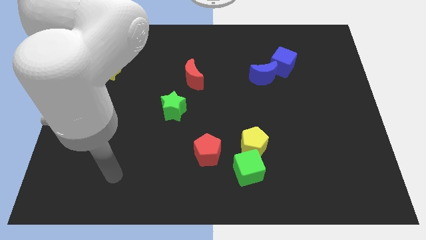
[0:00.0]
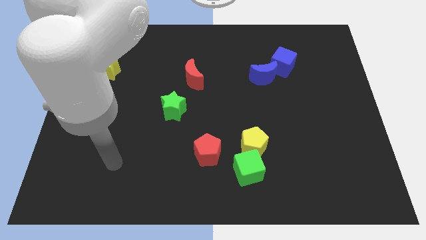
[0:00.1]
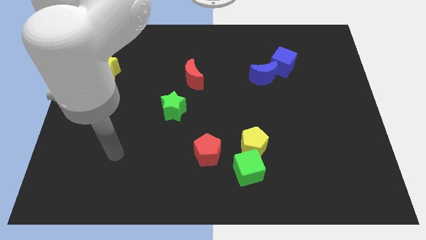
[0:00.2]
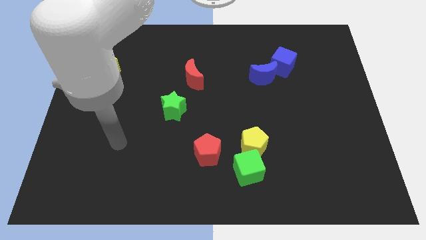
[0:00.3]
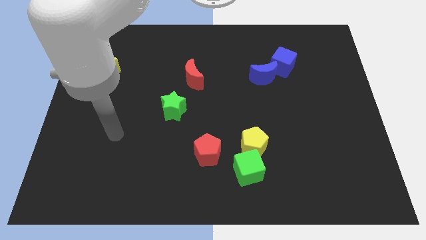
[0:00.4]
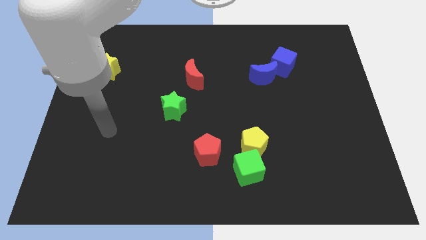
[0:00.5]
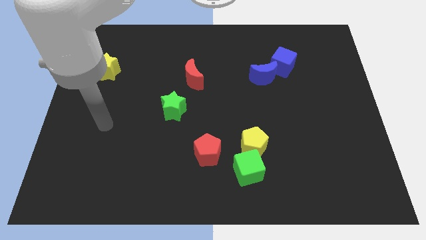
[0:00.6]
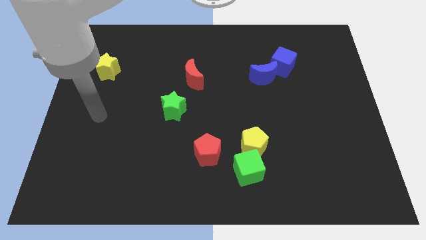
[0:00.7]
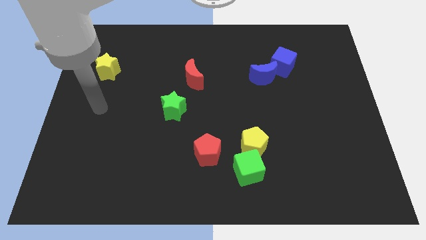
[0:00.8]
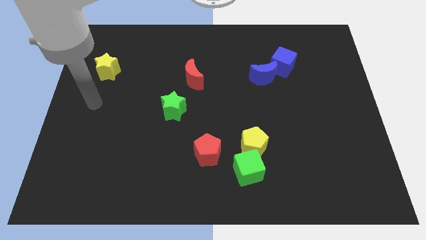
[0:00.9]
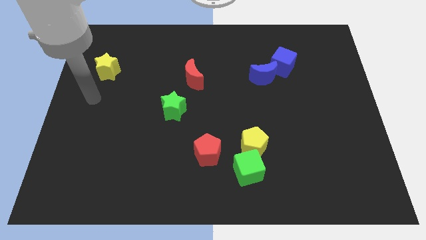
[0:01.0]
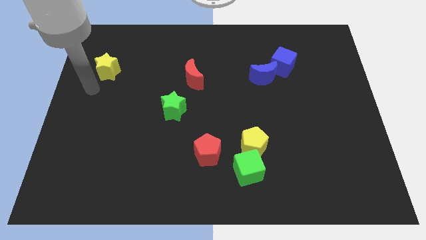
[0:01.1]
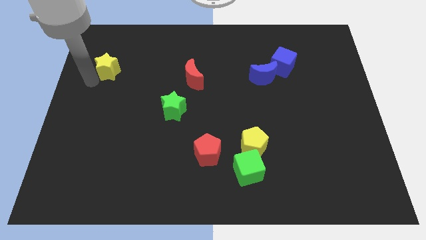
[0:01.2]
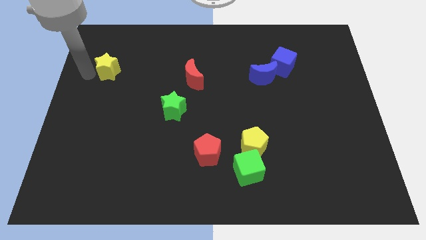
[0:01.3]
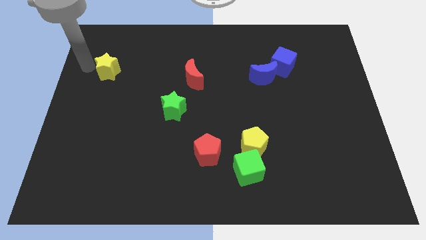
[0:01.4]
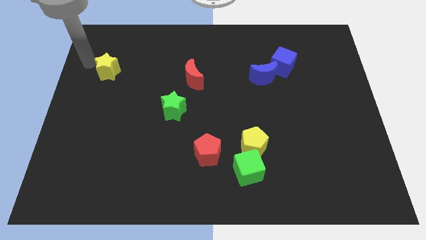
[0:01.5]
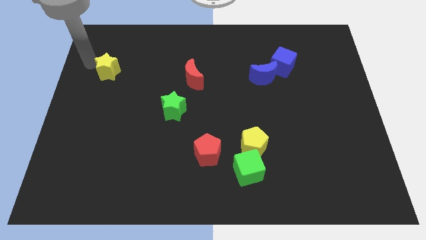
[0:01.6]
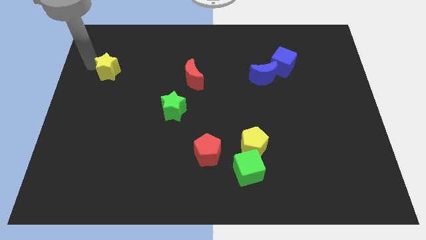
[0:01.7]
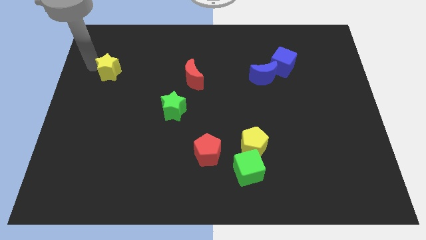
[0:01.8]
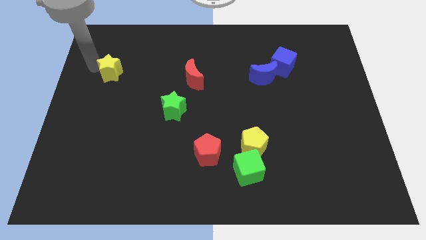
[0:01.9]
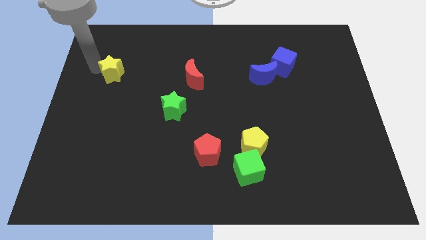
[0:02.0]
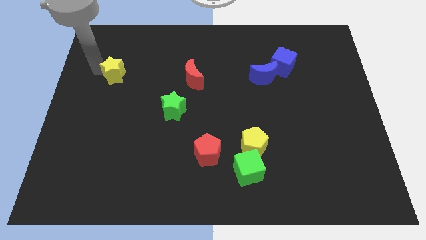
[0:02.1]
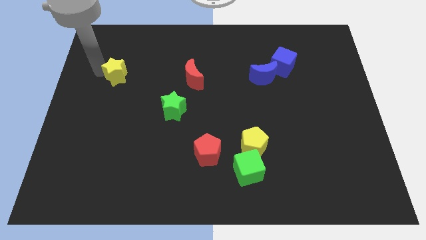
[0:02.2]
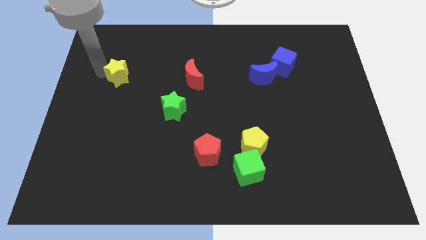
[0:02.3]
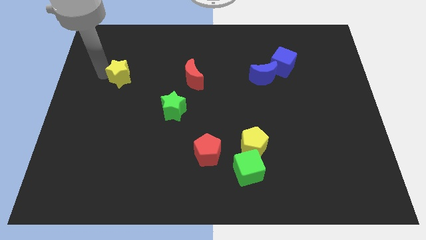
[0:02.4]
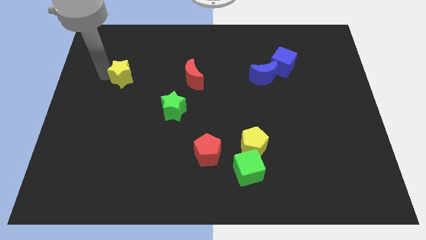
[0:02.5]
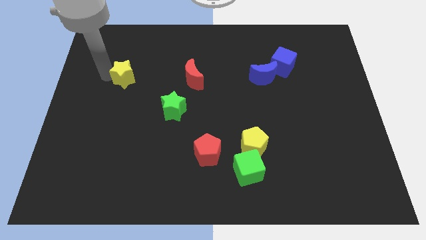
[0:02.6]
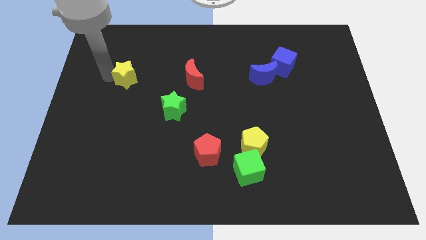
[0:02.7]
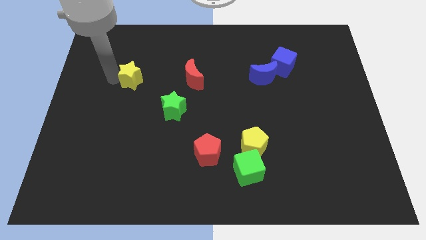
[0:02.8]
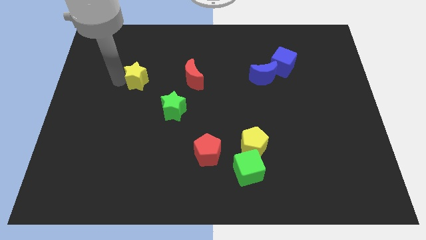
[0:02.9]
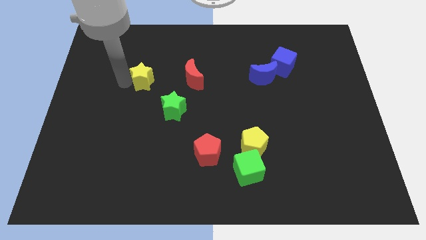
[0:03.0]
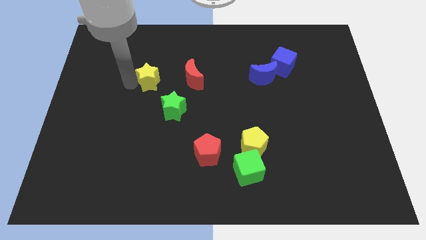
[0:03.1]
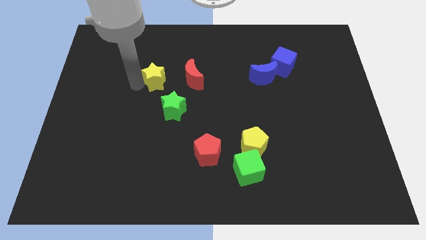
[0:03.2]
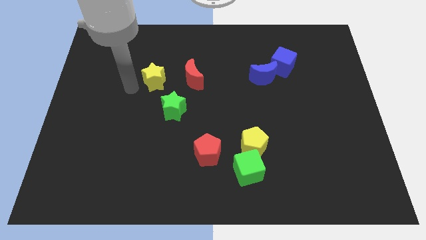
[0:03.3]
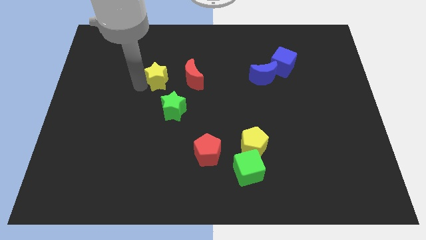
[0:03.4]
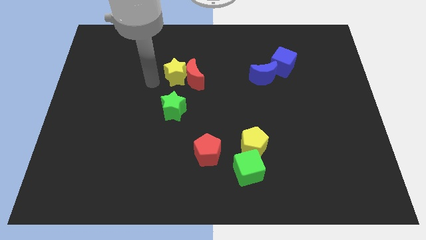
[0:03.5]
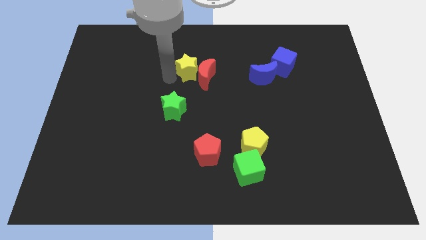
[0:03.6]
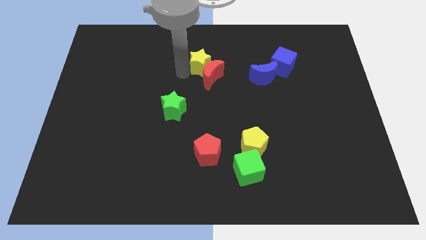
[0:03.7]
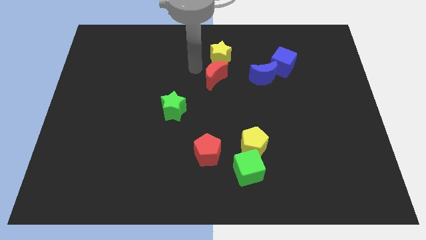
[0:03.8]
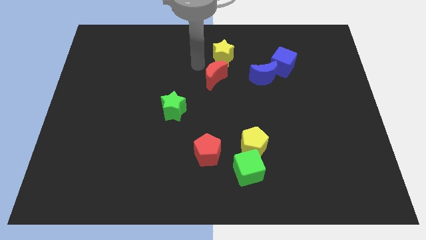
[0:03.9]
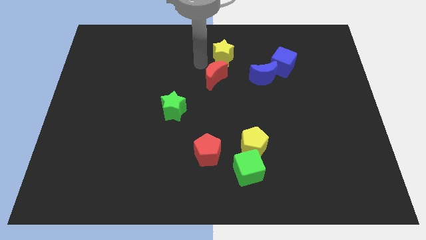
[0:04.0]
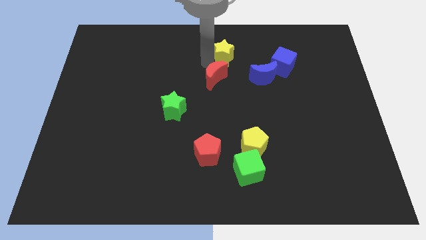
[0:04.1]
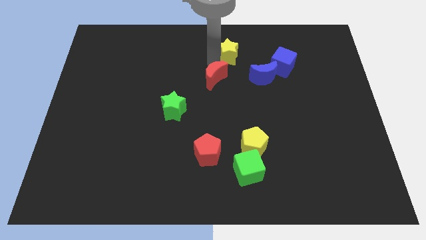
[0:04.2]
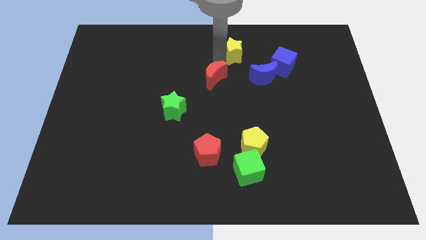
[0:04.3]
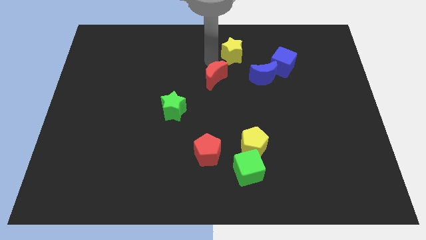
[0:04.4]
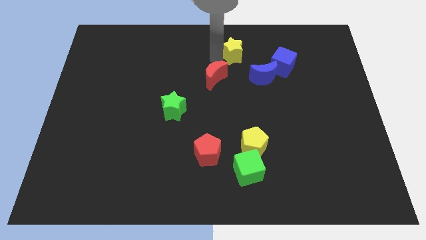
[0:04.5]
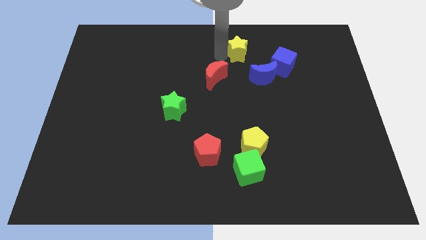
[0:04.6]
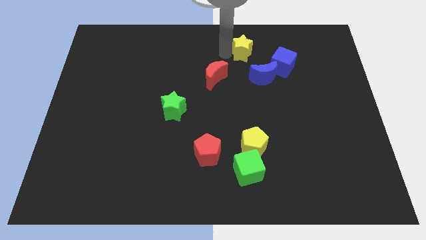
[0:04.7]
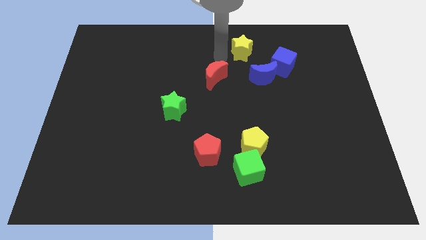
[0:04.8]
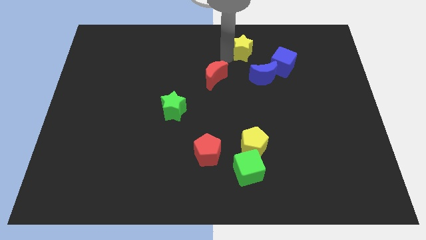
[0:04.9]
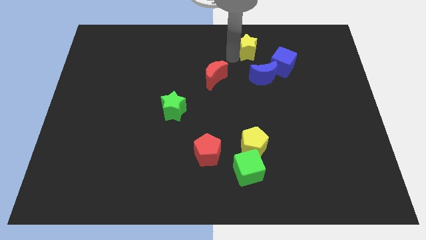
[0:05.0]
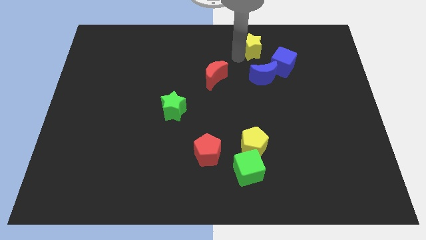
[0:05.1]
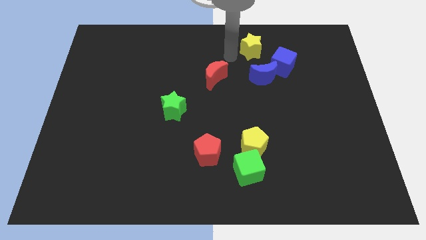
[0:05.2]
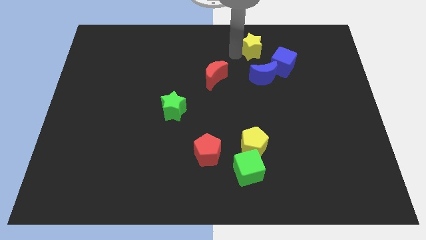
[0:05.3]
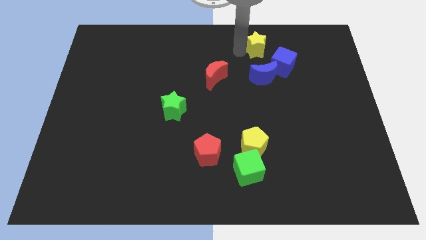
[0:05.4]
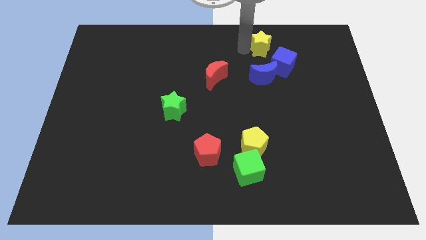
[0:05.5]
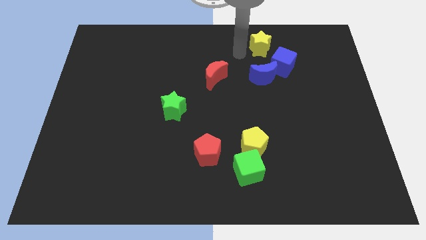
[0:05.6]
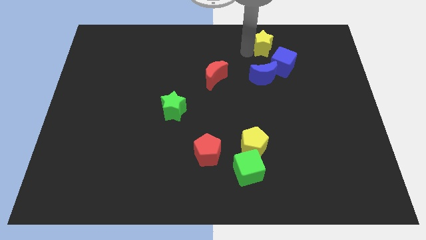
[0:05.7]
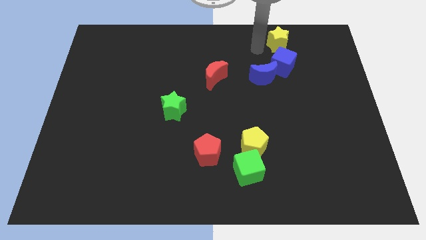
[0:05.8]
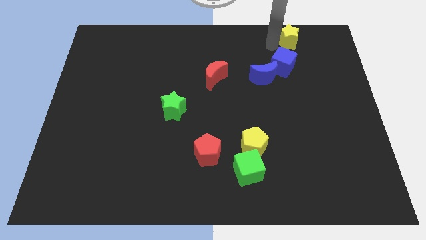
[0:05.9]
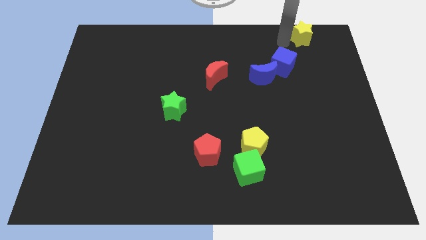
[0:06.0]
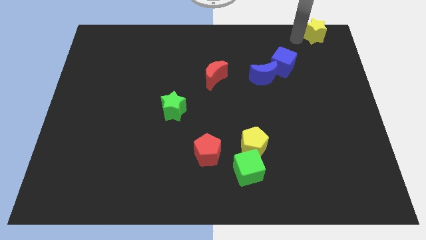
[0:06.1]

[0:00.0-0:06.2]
push the yellow star to the top right corner

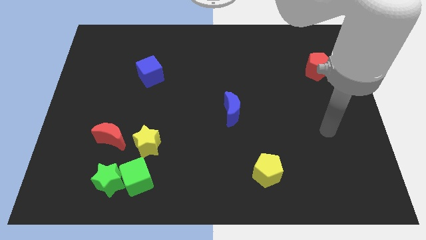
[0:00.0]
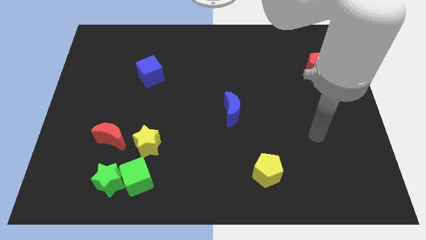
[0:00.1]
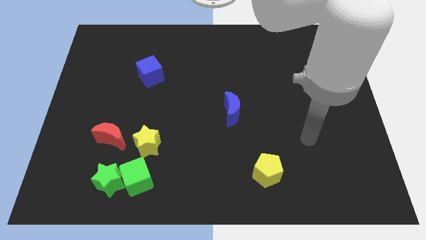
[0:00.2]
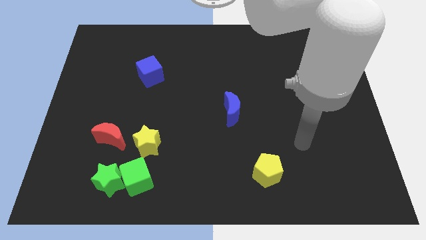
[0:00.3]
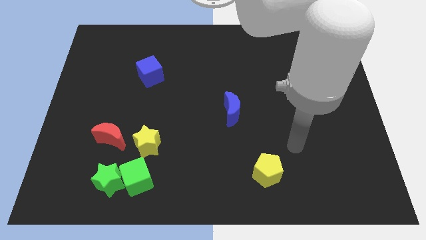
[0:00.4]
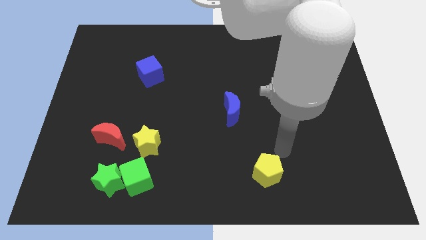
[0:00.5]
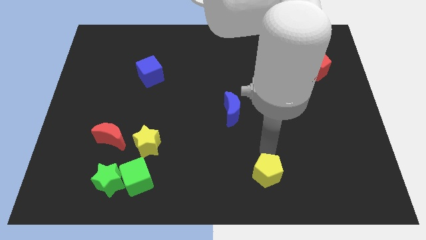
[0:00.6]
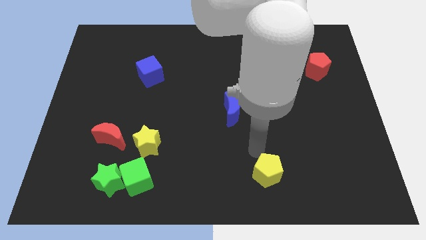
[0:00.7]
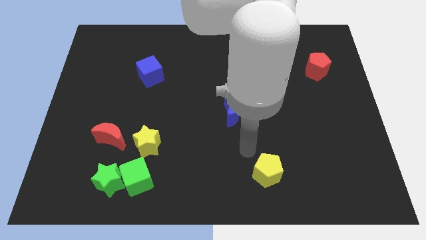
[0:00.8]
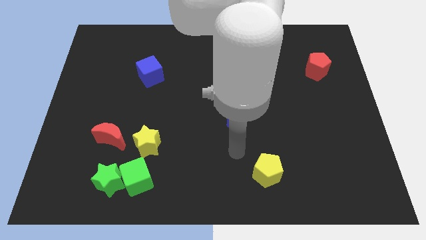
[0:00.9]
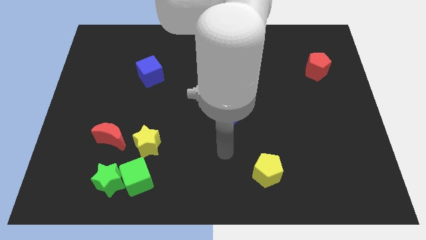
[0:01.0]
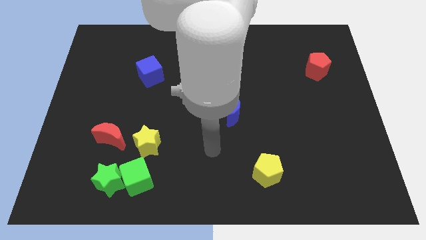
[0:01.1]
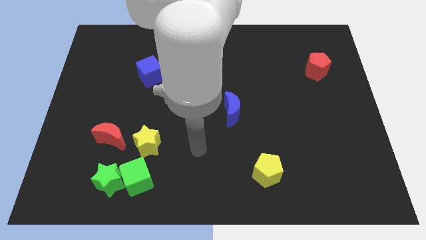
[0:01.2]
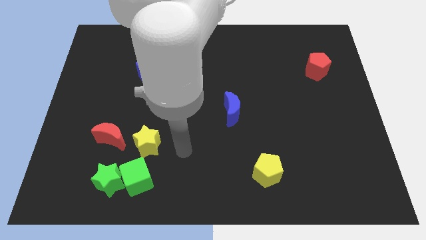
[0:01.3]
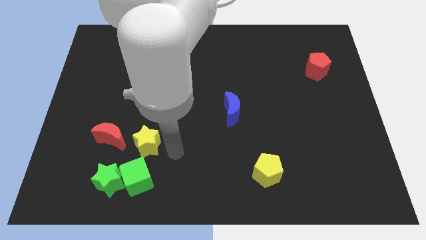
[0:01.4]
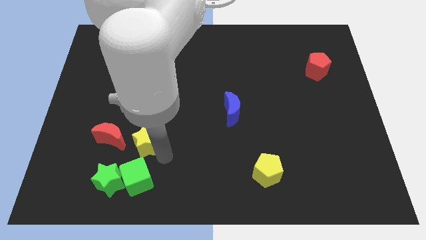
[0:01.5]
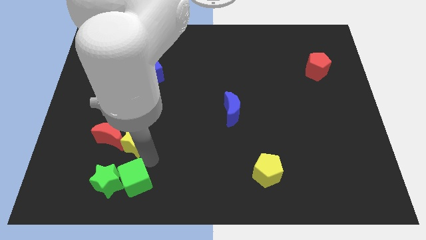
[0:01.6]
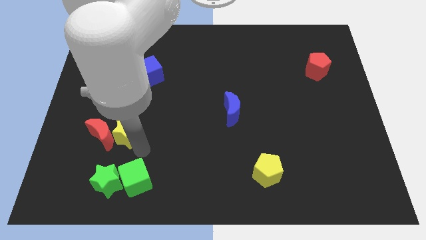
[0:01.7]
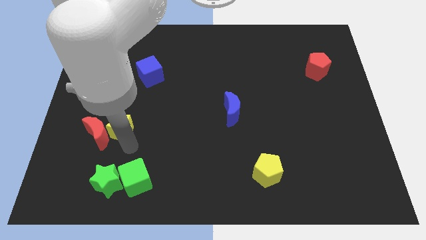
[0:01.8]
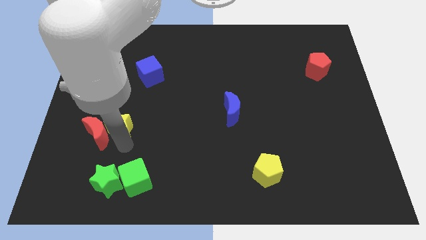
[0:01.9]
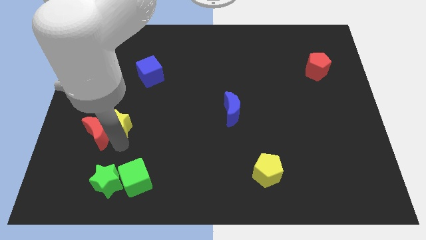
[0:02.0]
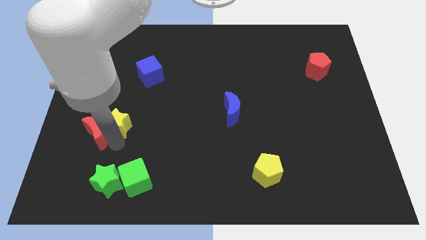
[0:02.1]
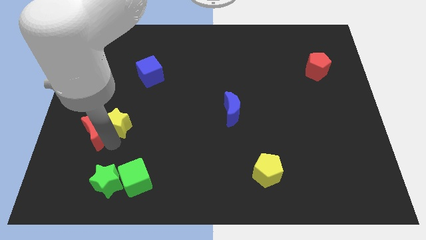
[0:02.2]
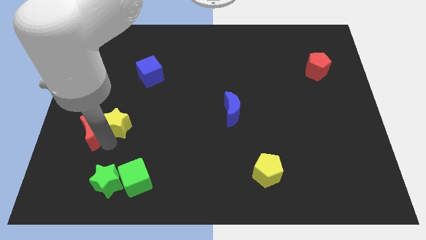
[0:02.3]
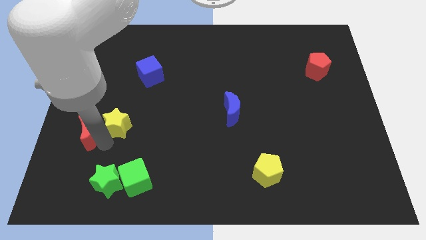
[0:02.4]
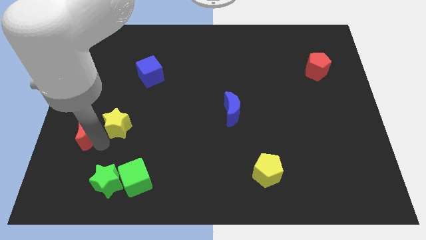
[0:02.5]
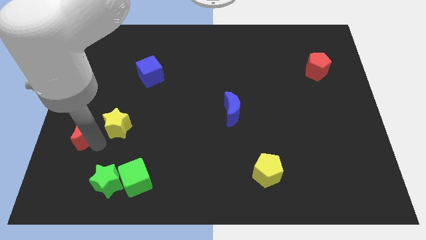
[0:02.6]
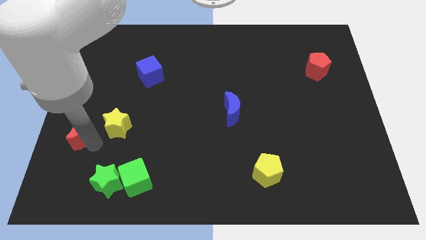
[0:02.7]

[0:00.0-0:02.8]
push the red moon to the left side of the board
